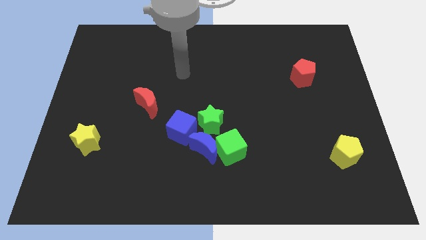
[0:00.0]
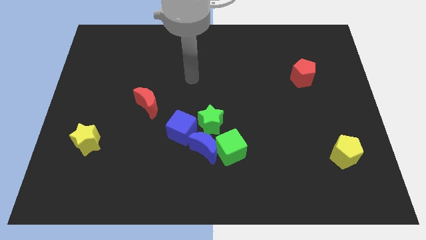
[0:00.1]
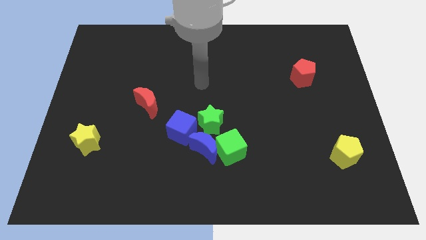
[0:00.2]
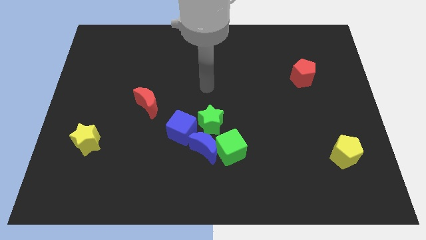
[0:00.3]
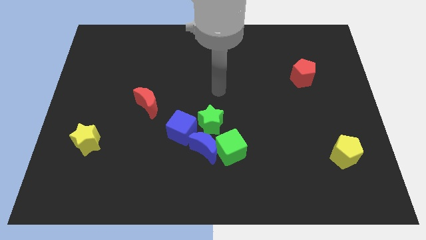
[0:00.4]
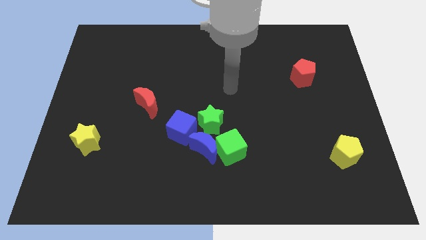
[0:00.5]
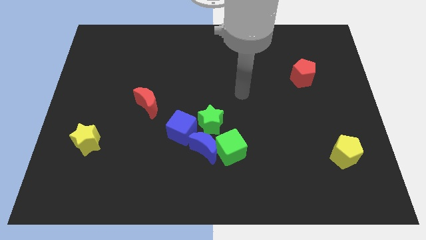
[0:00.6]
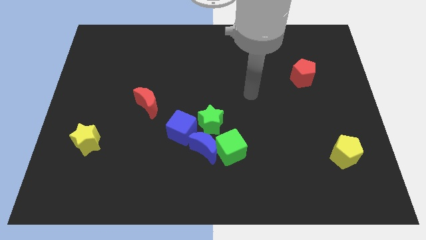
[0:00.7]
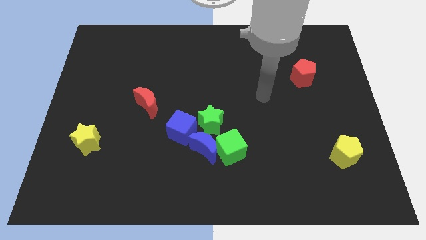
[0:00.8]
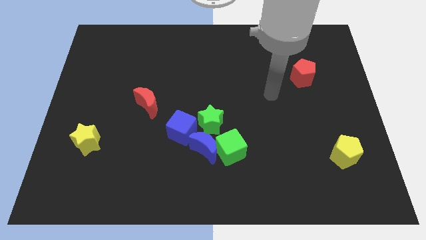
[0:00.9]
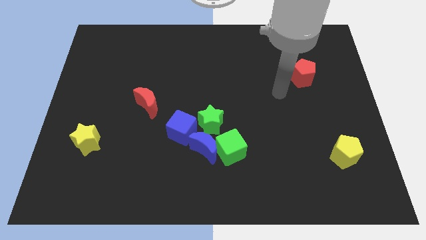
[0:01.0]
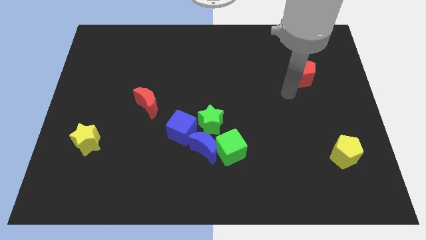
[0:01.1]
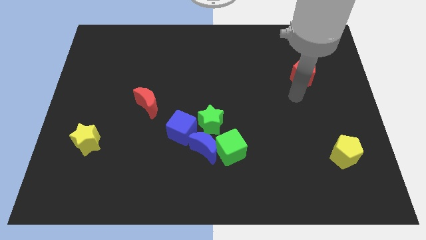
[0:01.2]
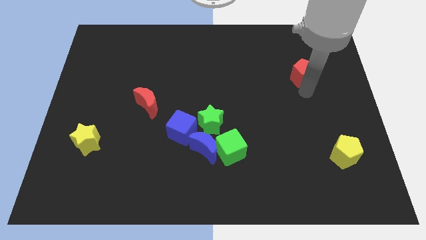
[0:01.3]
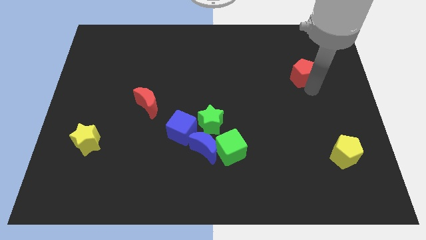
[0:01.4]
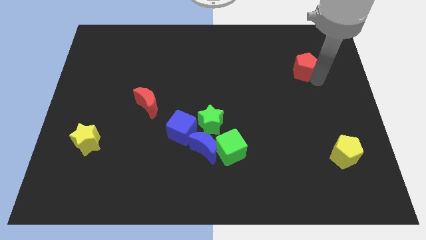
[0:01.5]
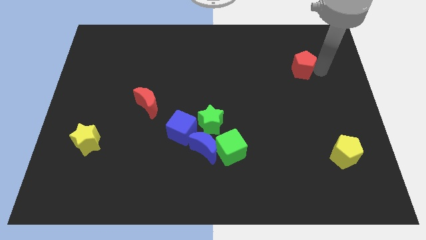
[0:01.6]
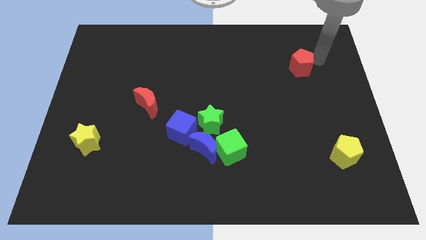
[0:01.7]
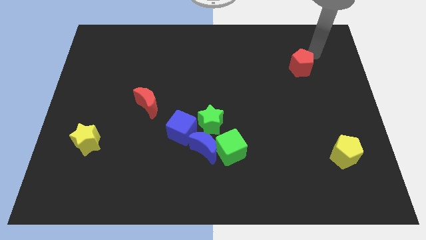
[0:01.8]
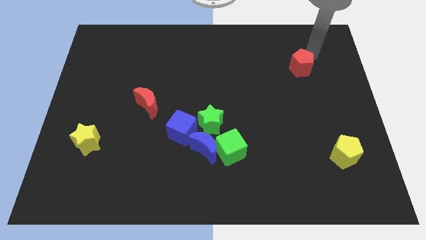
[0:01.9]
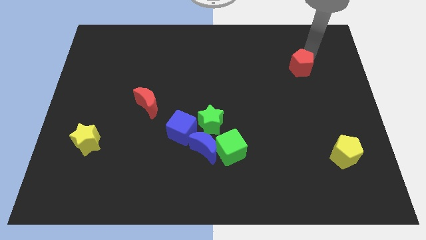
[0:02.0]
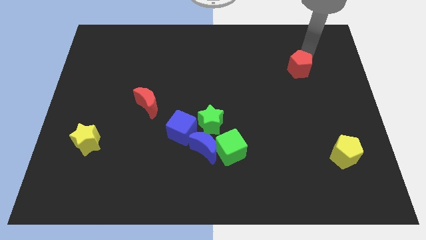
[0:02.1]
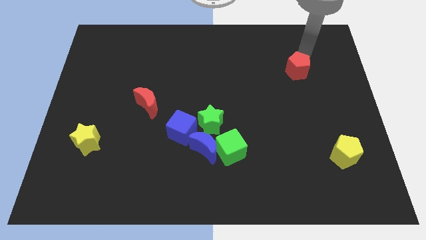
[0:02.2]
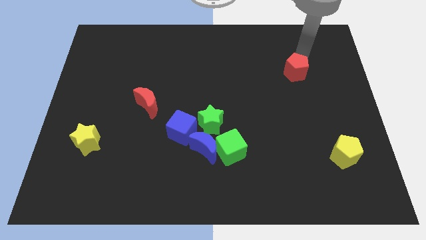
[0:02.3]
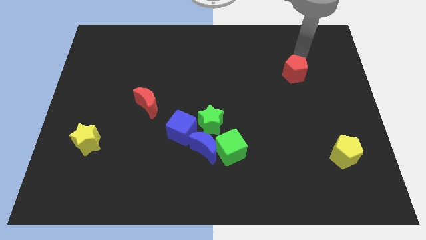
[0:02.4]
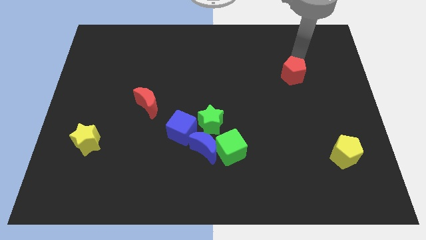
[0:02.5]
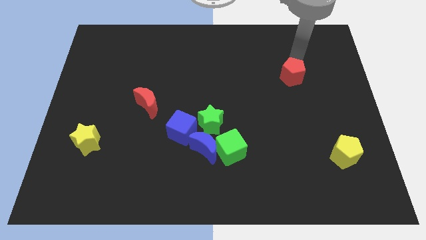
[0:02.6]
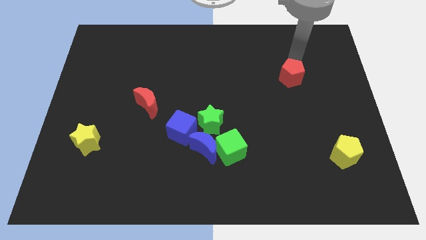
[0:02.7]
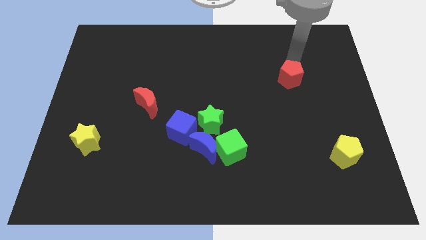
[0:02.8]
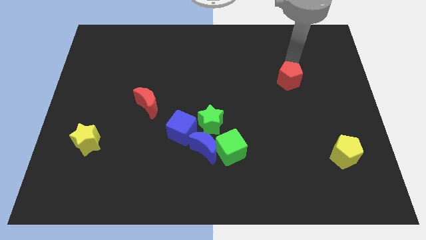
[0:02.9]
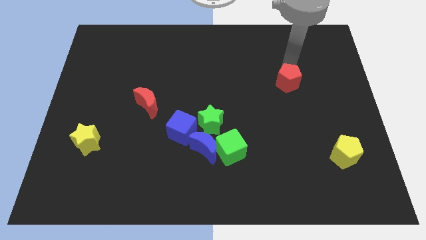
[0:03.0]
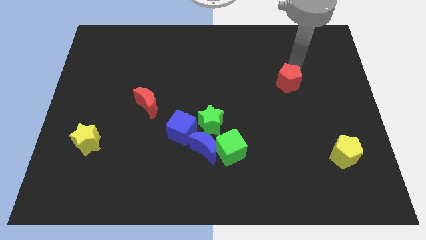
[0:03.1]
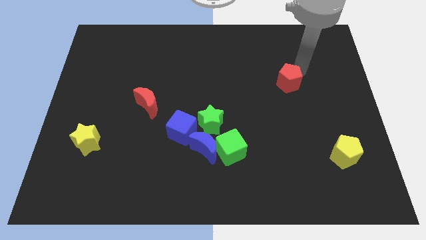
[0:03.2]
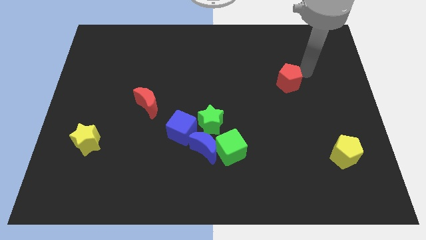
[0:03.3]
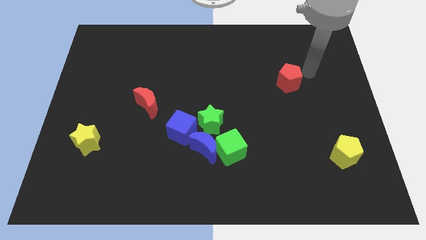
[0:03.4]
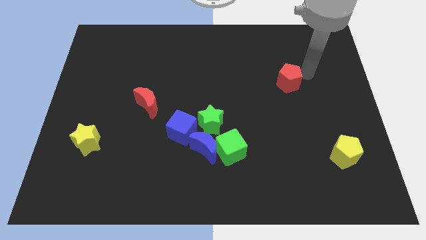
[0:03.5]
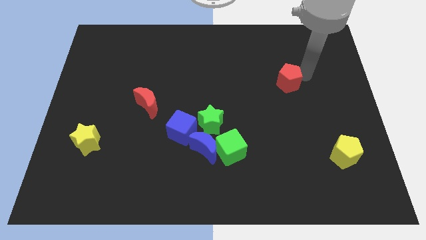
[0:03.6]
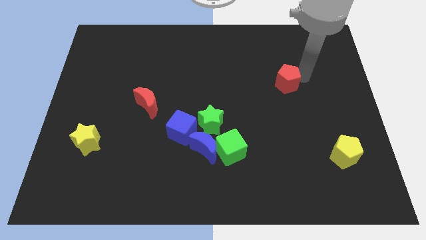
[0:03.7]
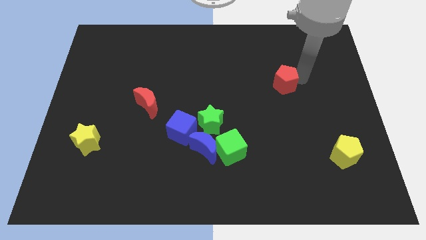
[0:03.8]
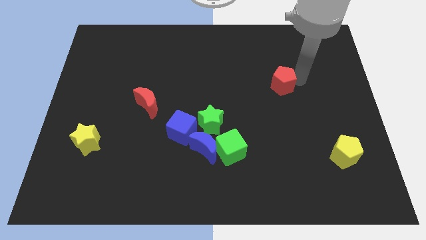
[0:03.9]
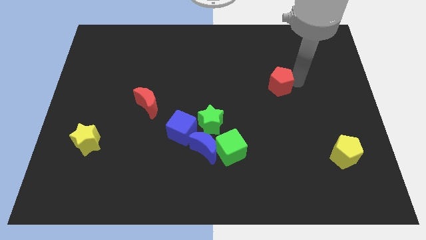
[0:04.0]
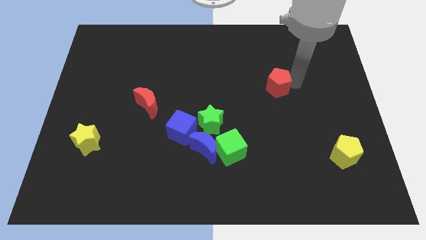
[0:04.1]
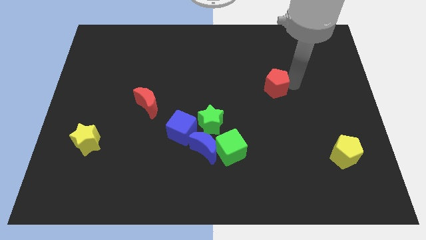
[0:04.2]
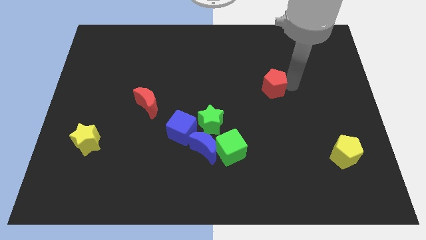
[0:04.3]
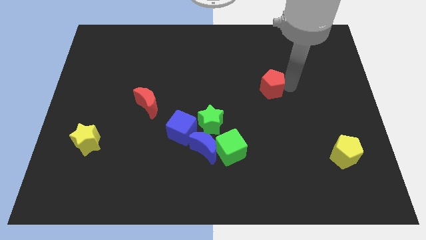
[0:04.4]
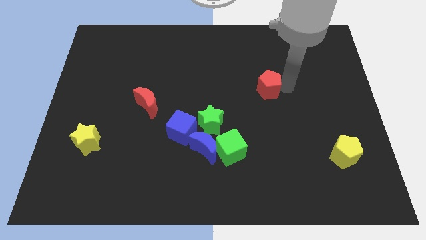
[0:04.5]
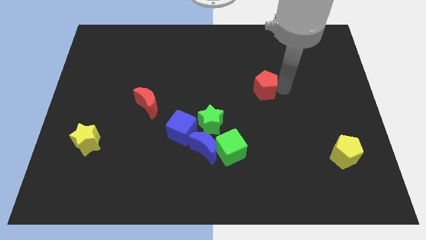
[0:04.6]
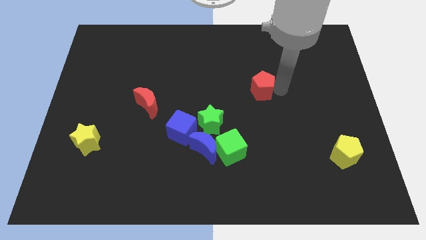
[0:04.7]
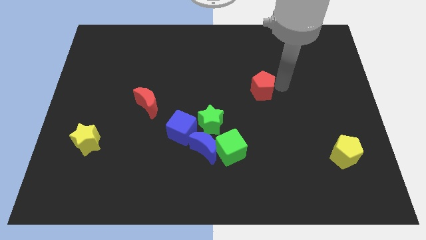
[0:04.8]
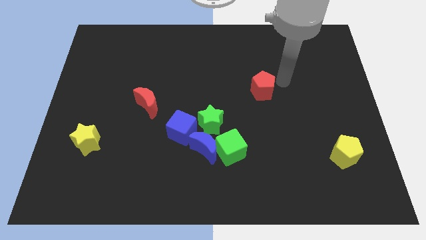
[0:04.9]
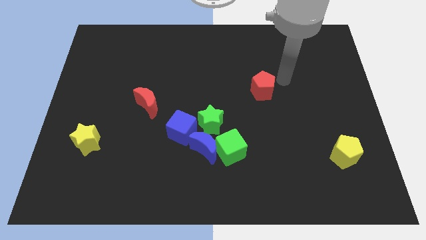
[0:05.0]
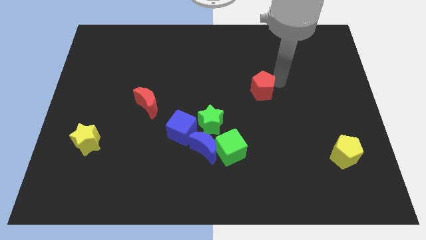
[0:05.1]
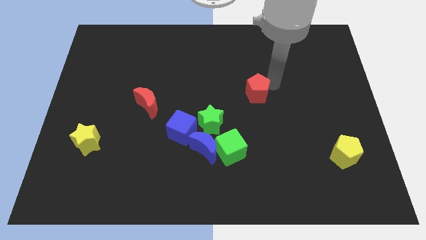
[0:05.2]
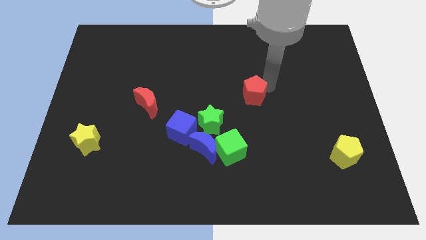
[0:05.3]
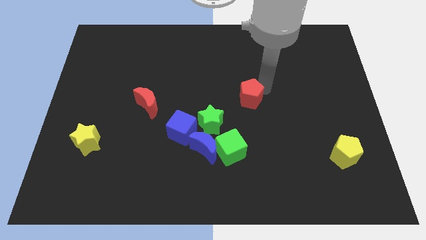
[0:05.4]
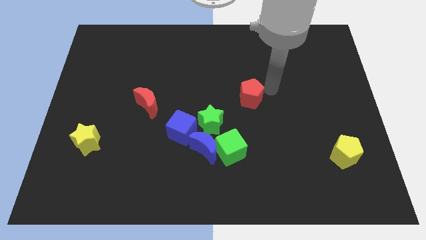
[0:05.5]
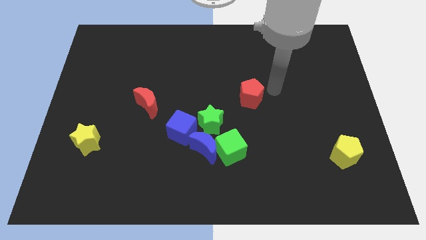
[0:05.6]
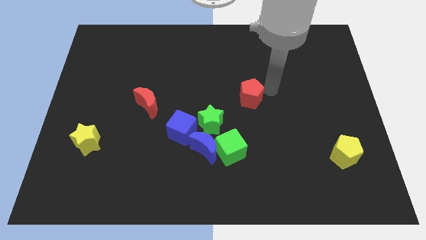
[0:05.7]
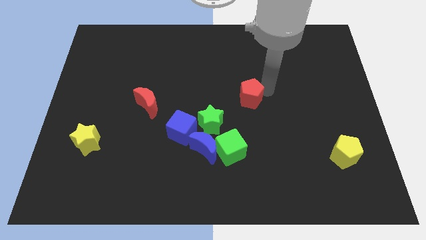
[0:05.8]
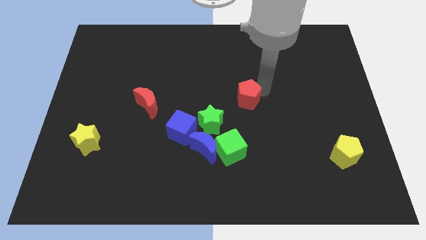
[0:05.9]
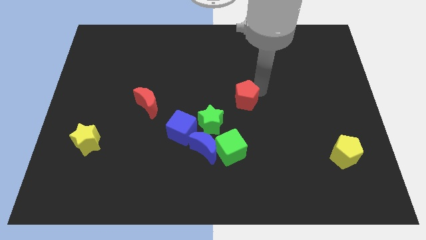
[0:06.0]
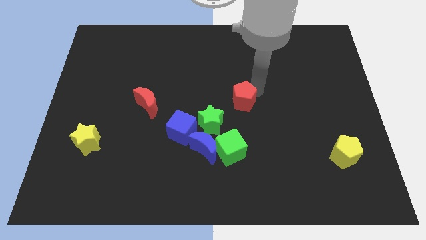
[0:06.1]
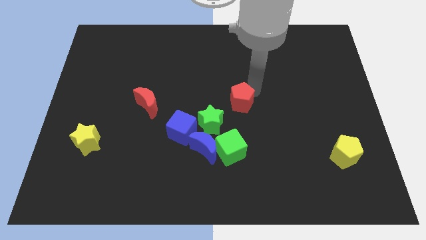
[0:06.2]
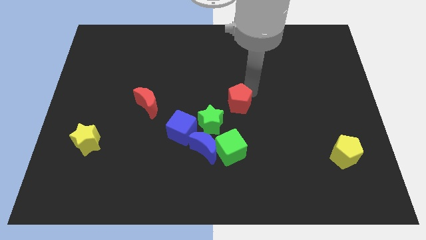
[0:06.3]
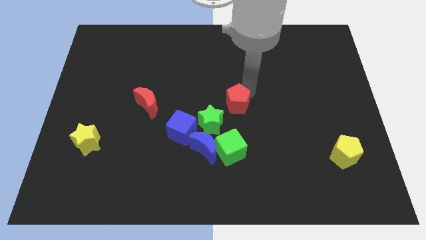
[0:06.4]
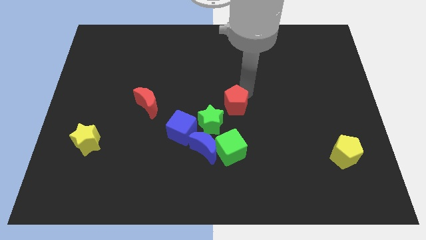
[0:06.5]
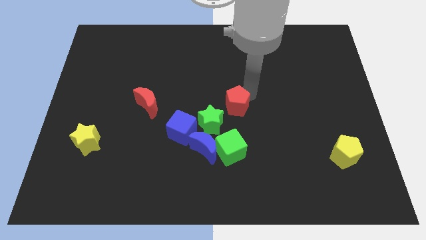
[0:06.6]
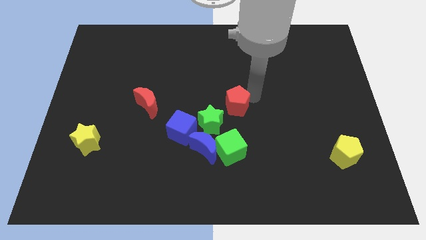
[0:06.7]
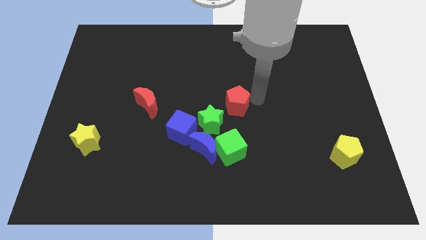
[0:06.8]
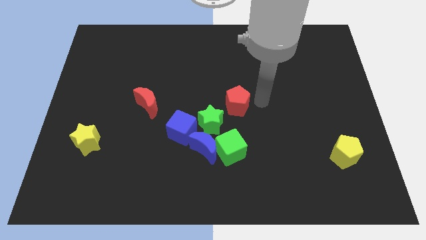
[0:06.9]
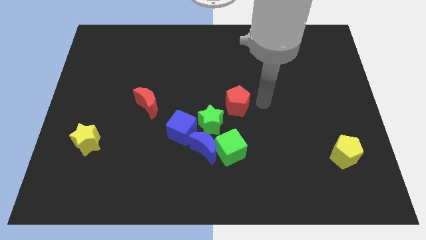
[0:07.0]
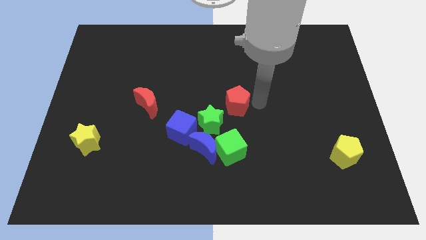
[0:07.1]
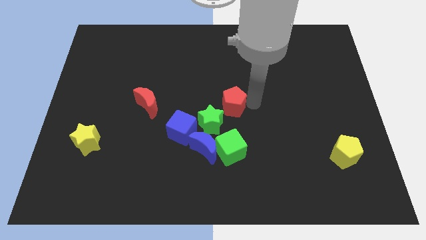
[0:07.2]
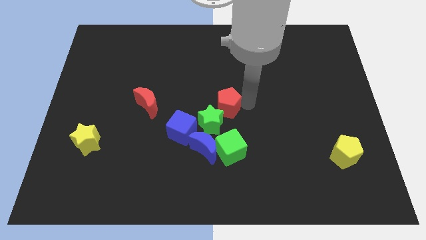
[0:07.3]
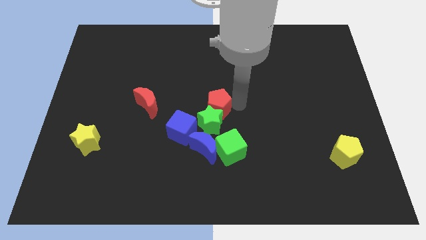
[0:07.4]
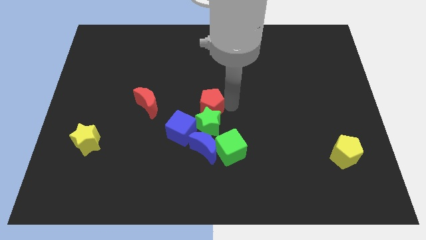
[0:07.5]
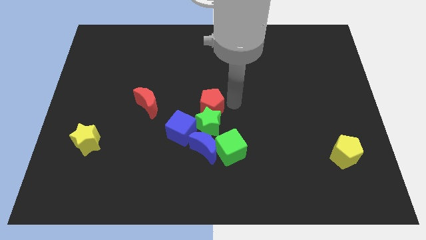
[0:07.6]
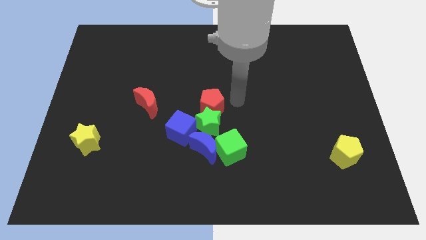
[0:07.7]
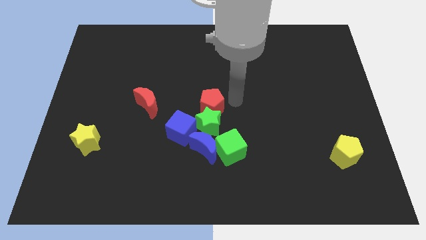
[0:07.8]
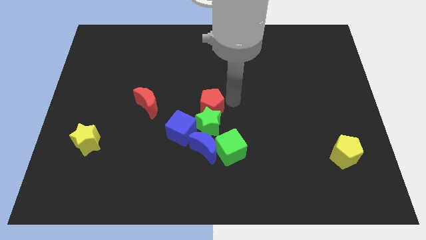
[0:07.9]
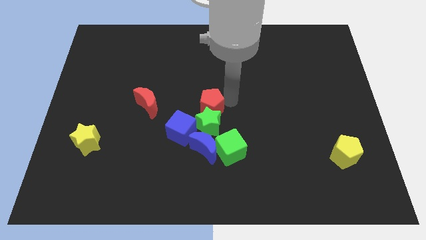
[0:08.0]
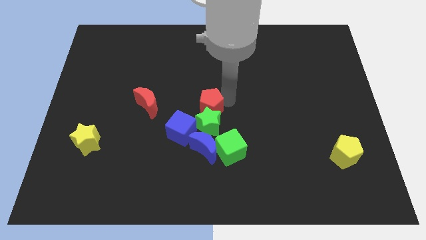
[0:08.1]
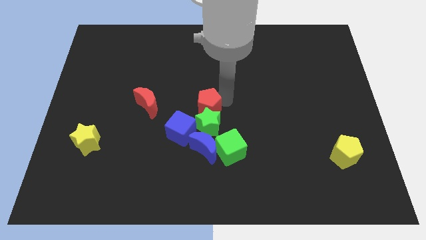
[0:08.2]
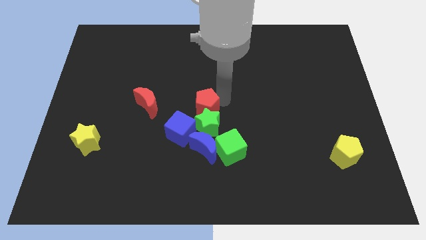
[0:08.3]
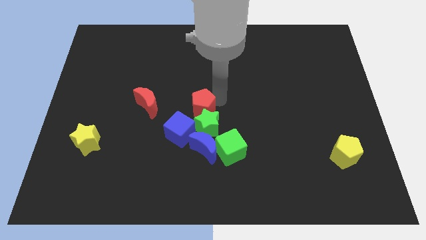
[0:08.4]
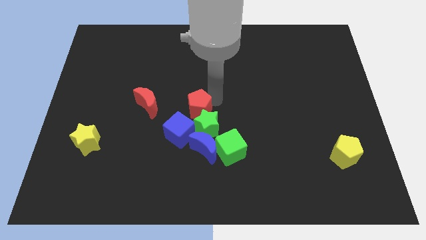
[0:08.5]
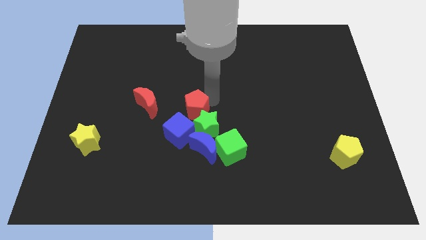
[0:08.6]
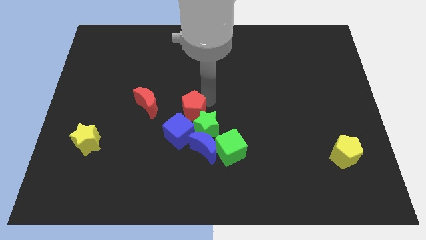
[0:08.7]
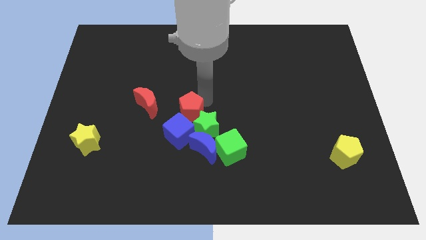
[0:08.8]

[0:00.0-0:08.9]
push the red pentagon to the top left of the blue moon
